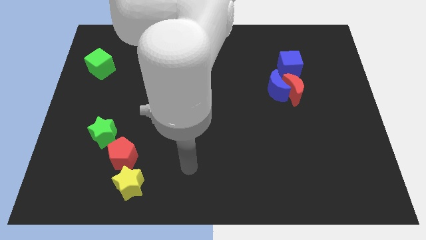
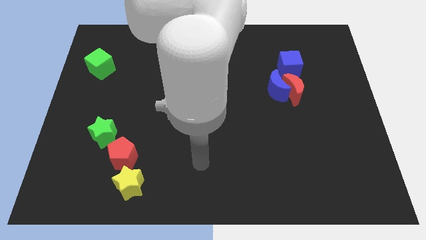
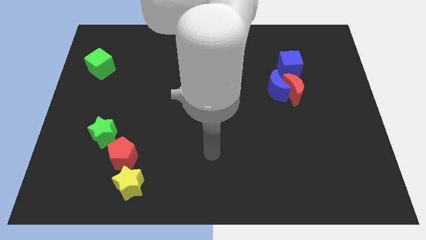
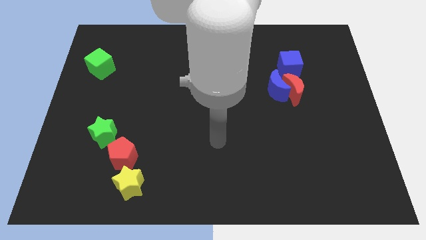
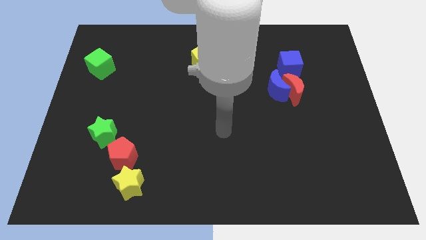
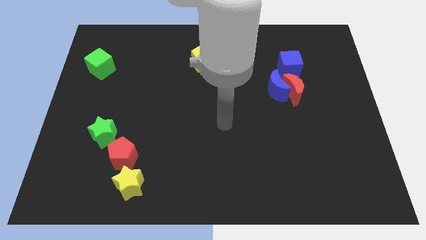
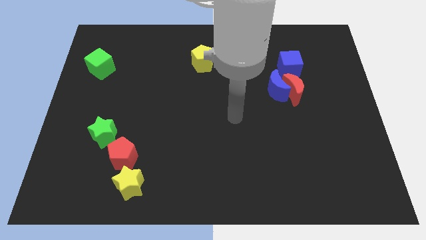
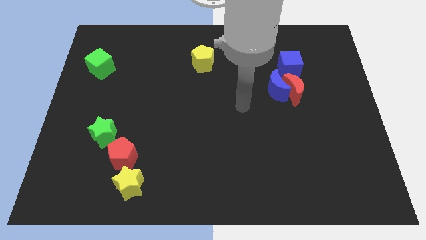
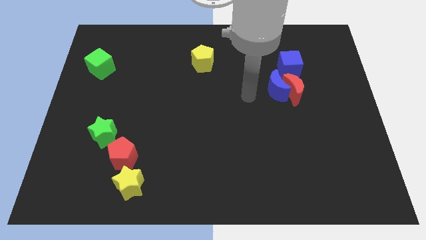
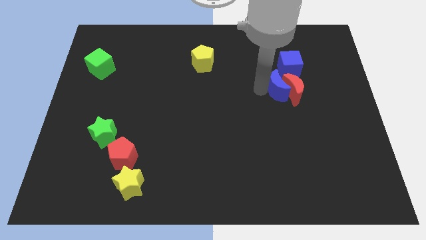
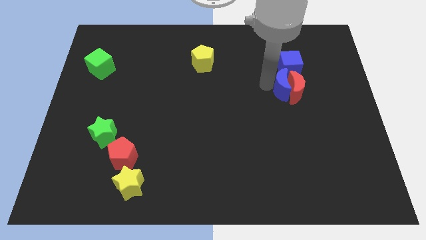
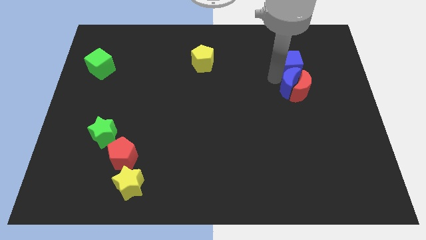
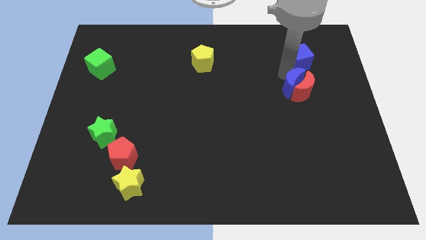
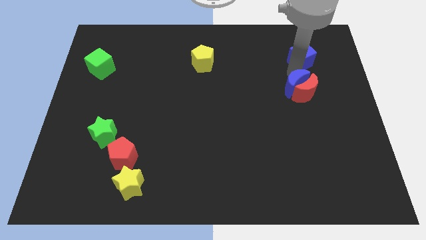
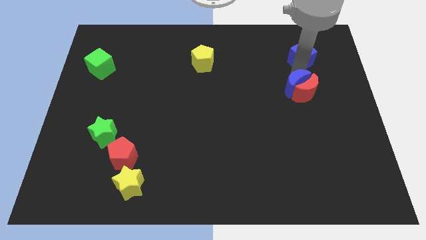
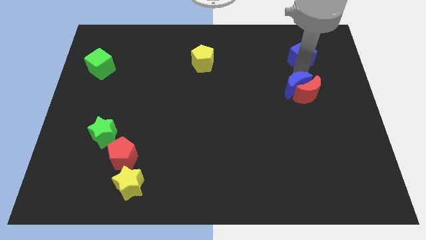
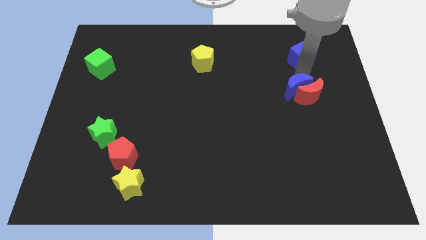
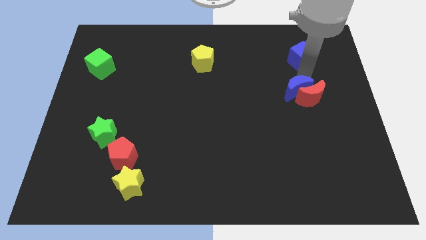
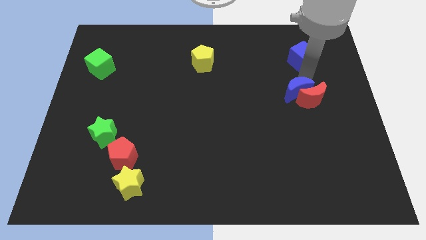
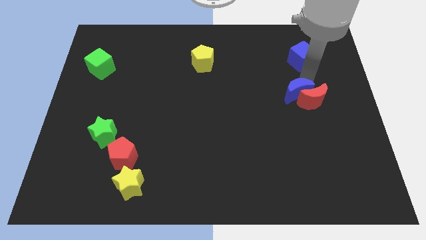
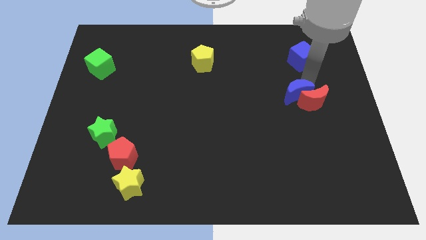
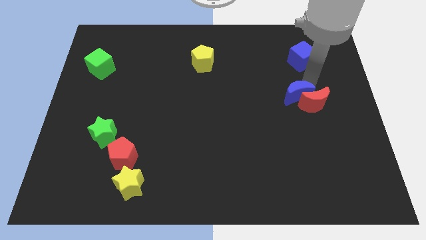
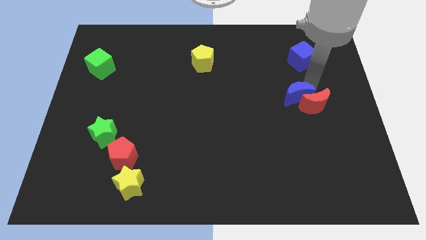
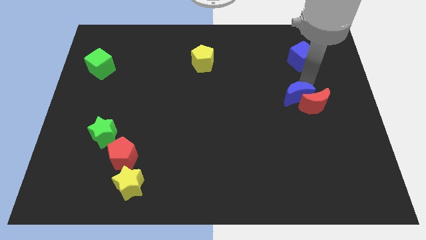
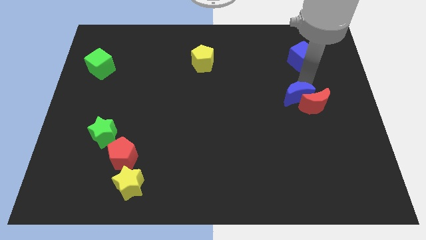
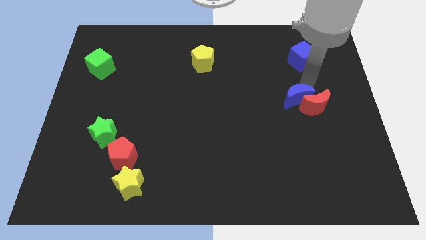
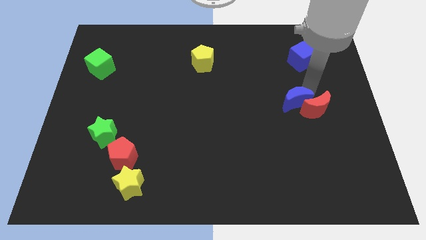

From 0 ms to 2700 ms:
move the red moon away from the blue moon and blue cube

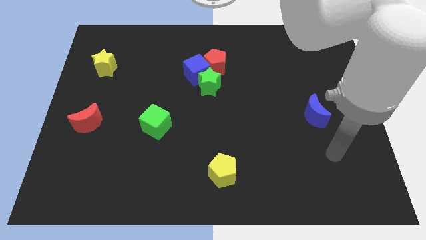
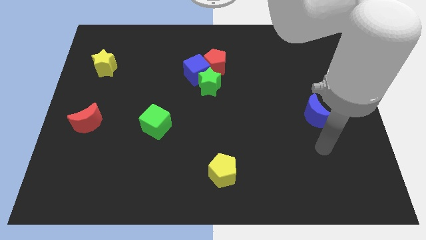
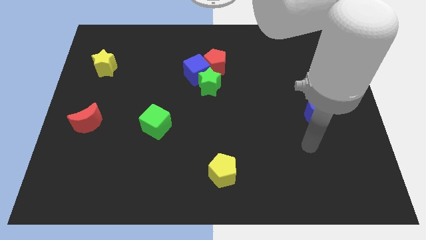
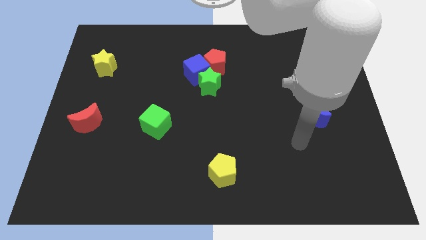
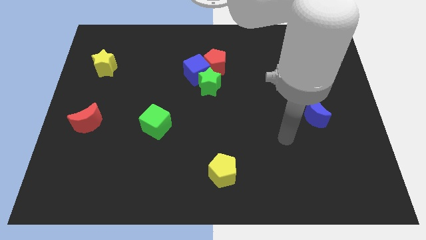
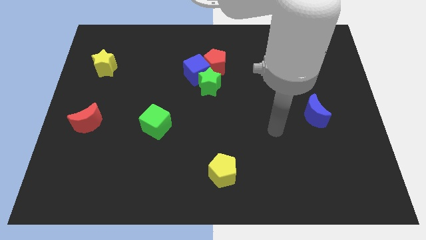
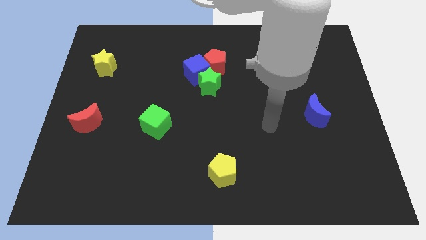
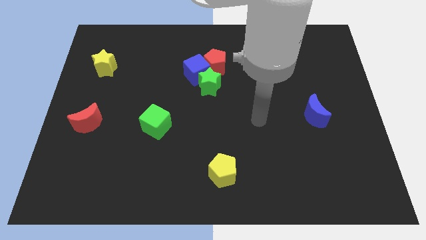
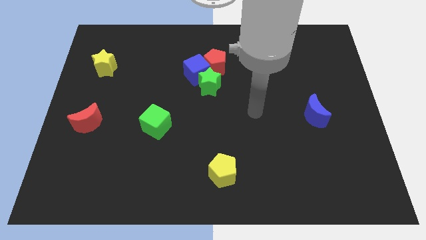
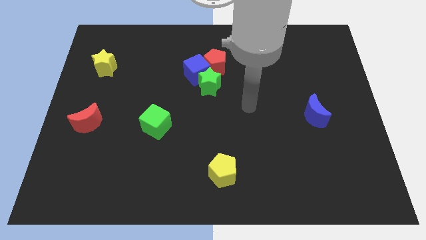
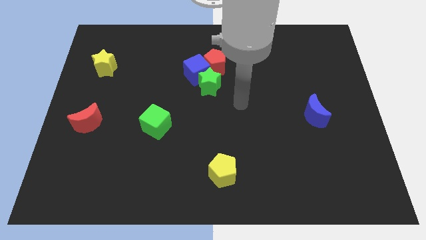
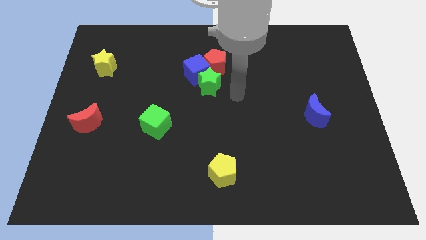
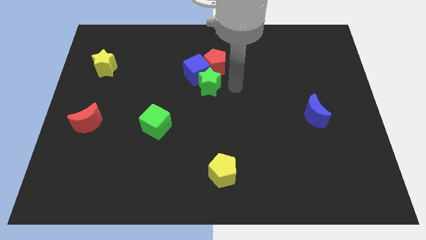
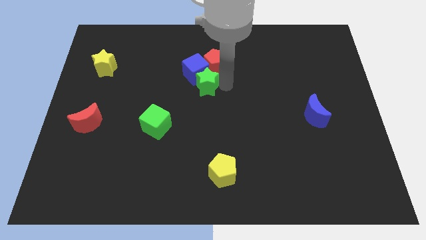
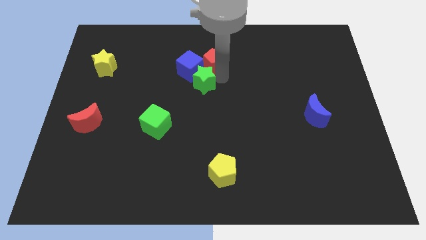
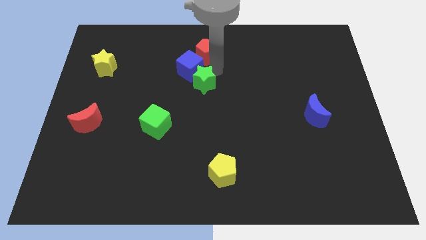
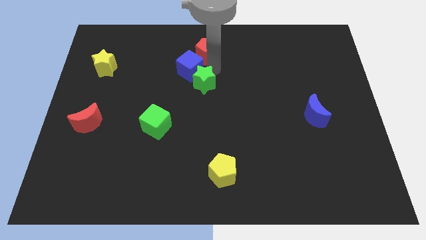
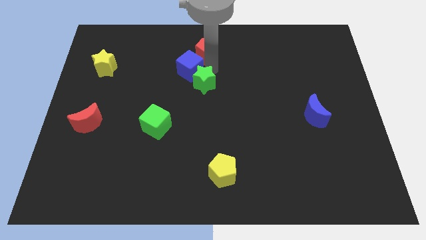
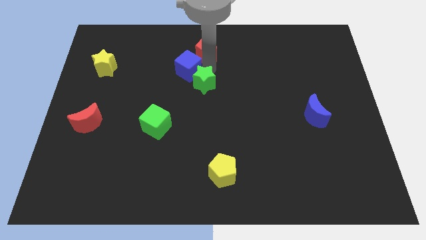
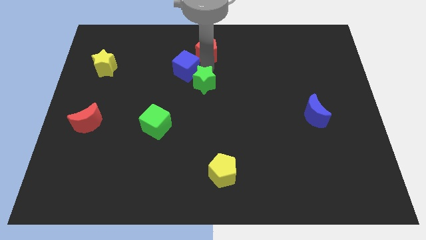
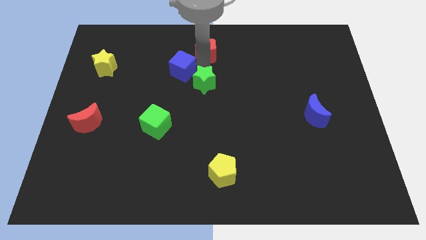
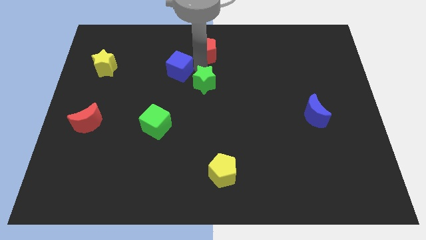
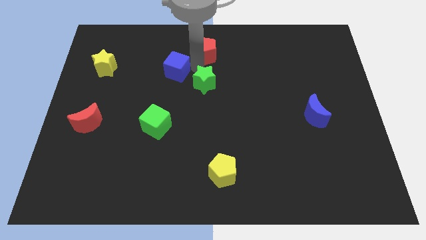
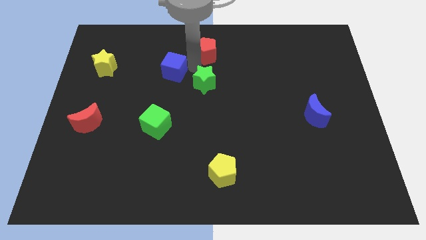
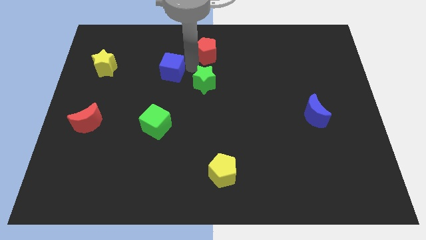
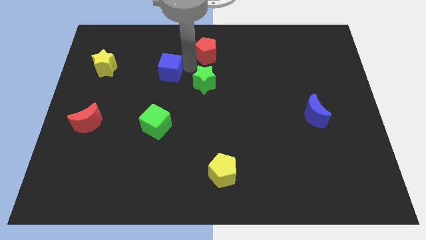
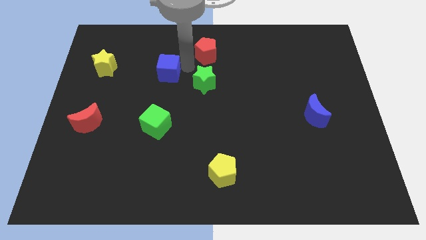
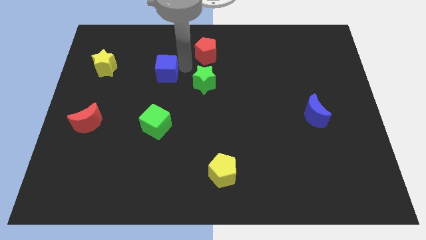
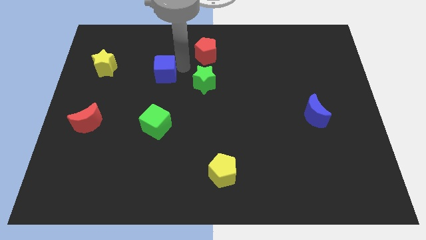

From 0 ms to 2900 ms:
move the blue cube away from the green star and red pentagon

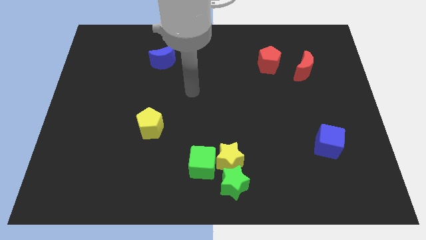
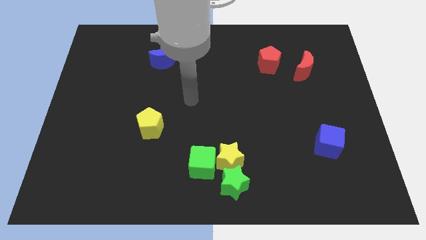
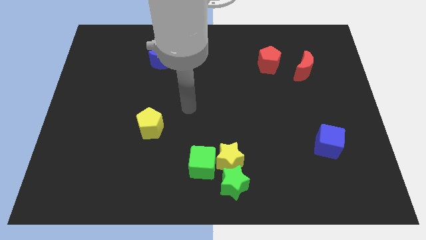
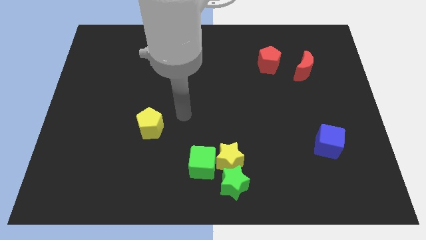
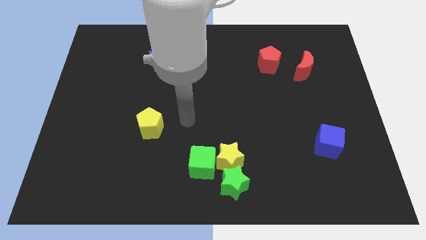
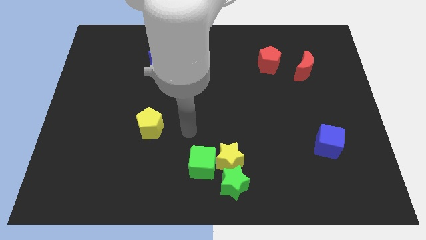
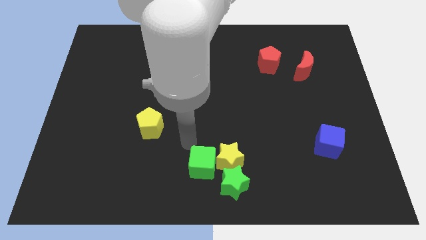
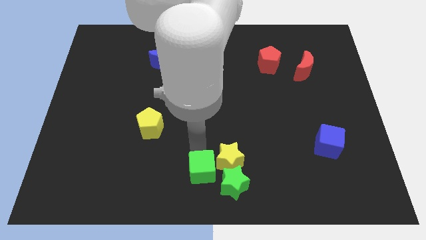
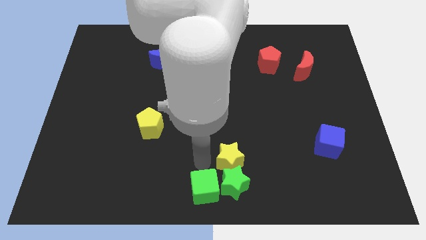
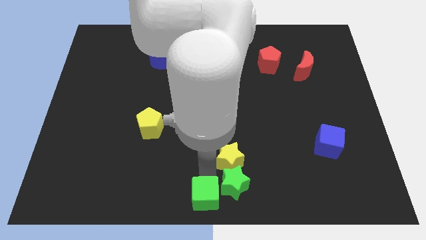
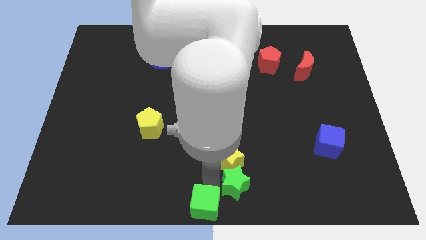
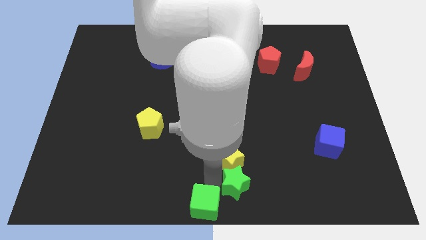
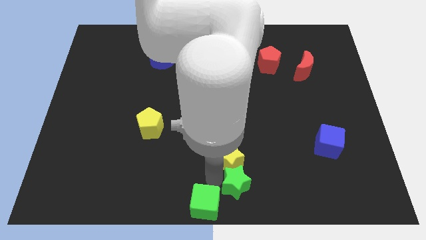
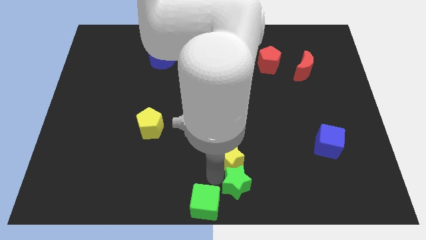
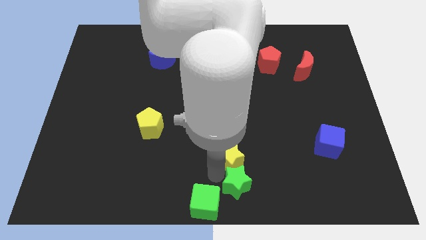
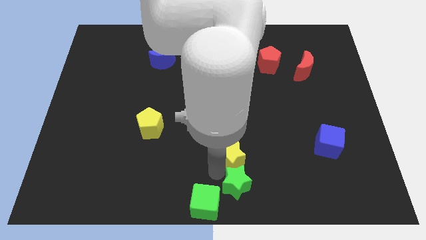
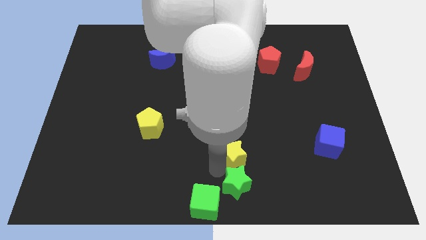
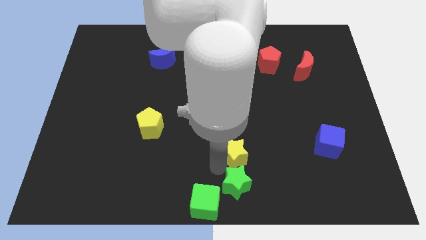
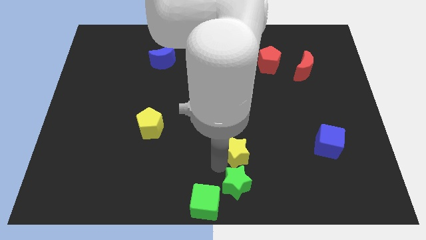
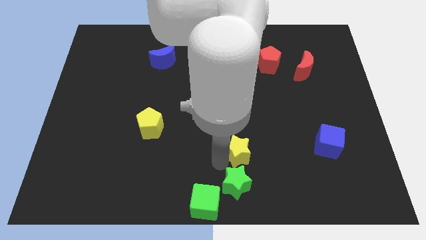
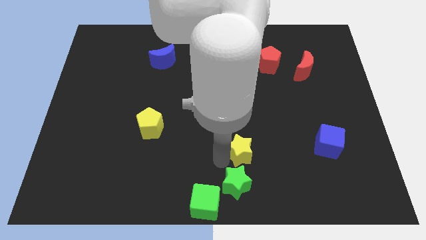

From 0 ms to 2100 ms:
separate the yellow star from the green star and green cube

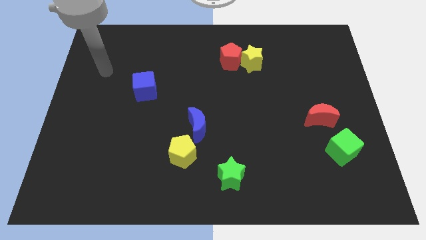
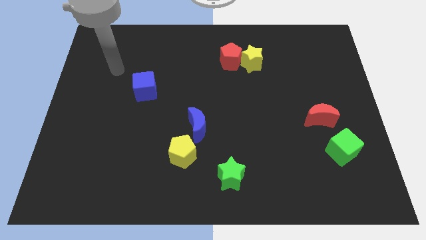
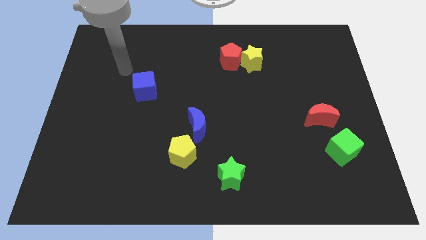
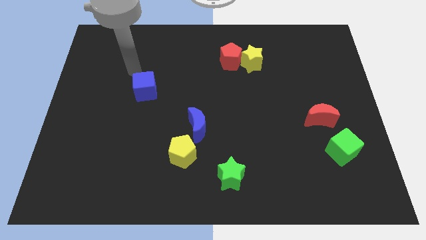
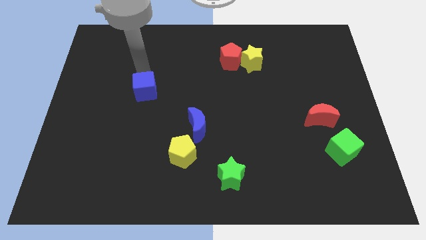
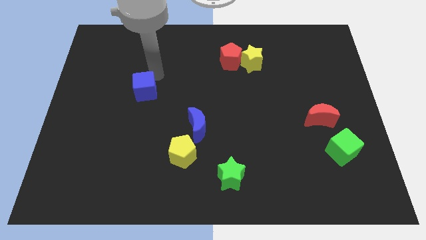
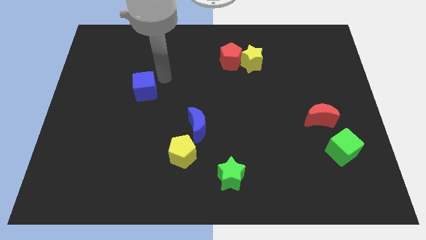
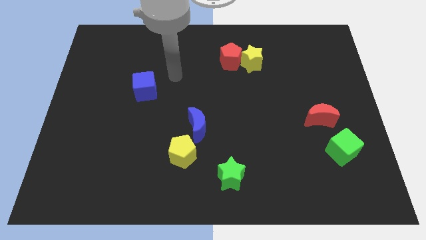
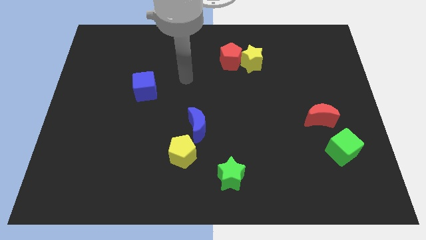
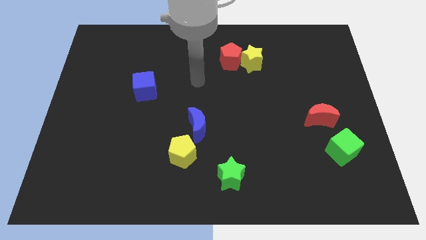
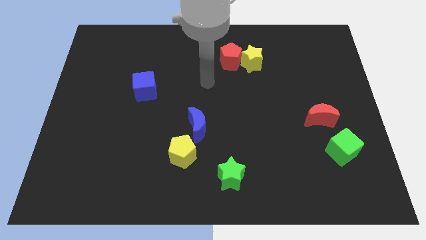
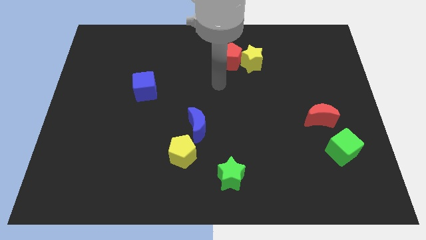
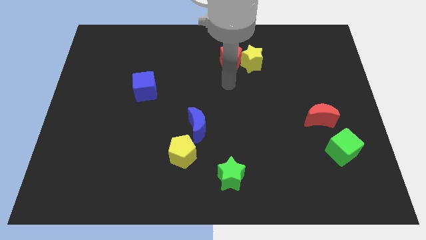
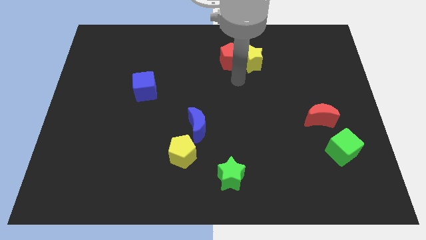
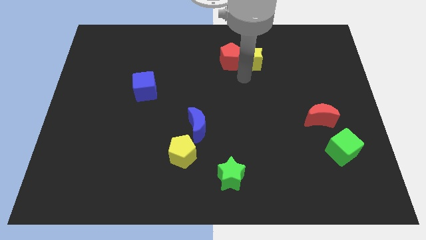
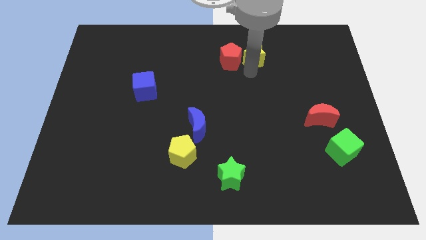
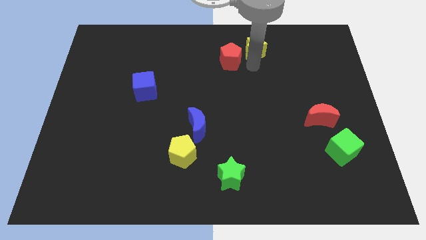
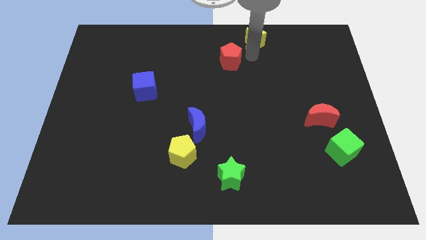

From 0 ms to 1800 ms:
move the red pentagon away from the yellow star
